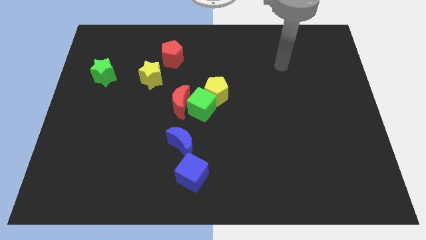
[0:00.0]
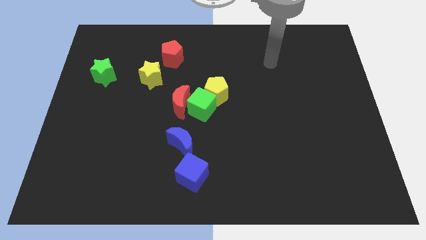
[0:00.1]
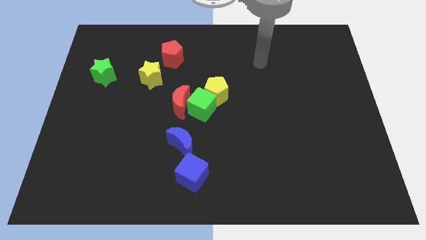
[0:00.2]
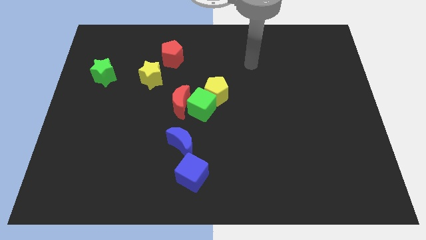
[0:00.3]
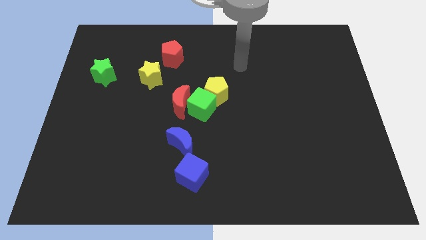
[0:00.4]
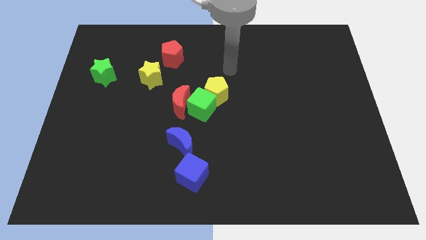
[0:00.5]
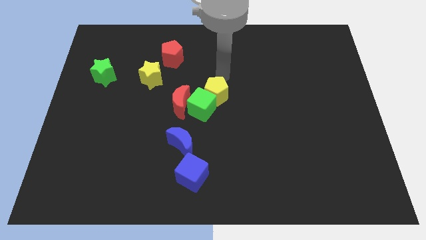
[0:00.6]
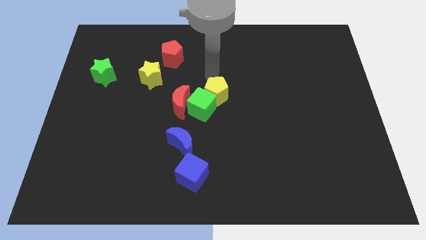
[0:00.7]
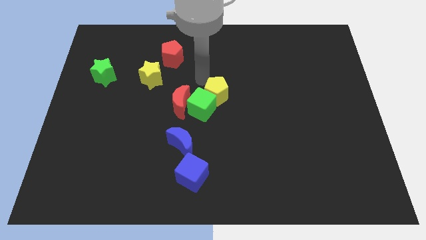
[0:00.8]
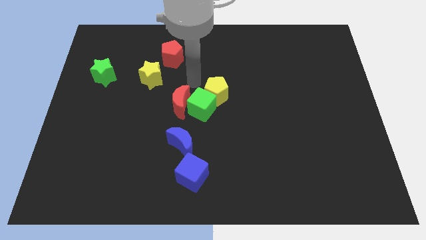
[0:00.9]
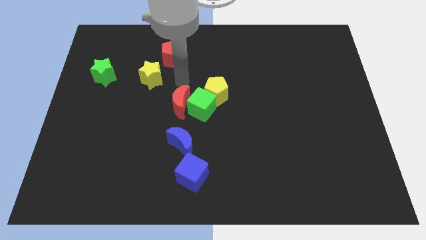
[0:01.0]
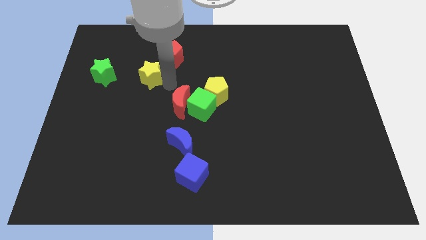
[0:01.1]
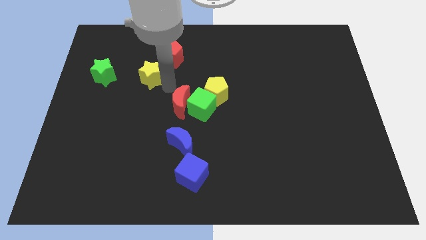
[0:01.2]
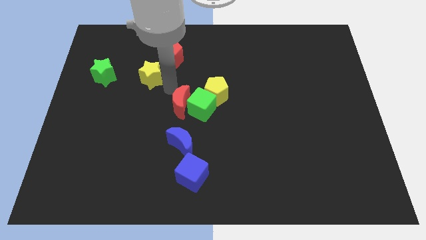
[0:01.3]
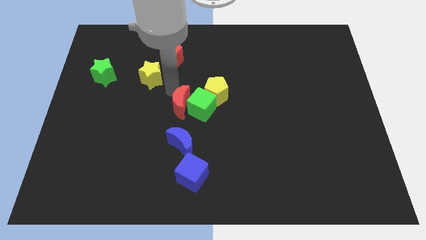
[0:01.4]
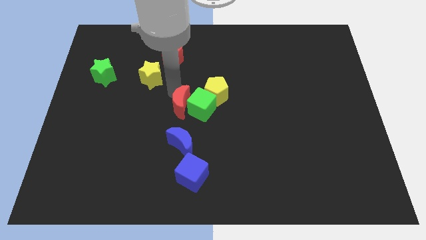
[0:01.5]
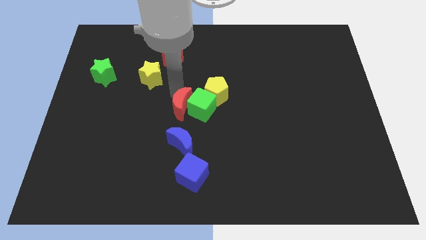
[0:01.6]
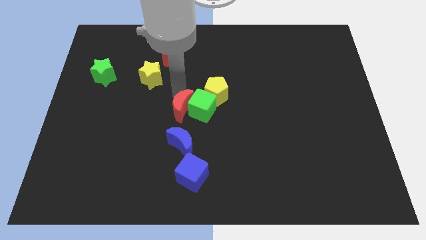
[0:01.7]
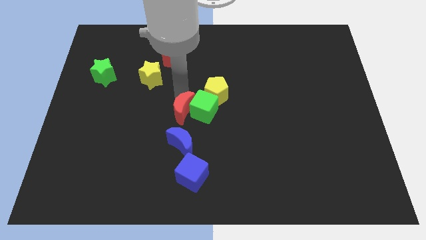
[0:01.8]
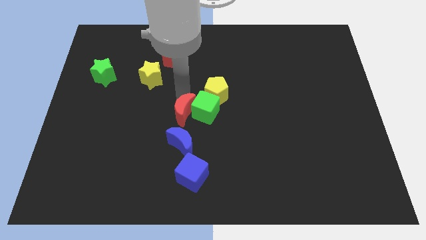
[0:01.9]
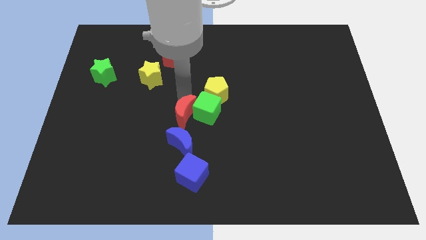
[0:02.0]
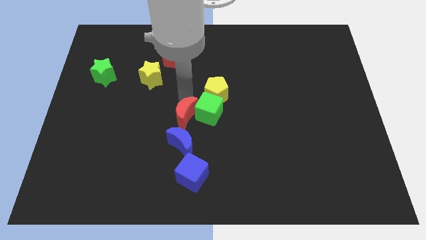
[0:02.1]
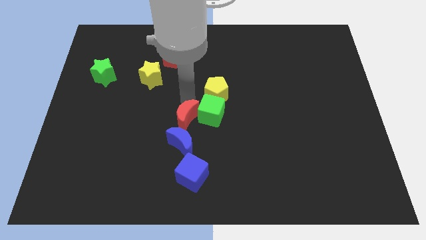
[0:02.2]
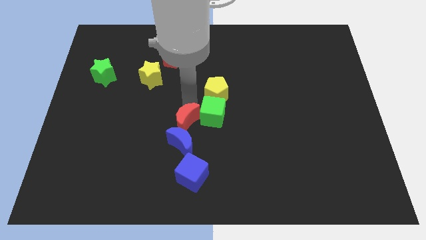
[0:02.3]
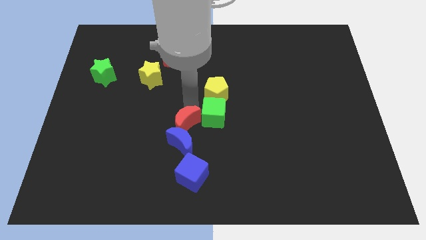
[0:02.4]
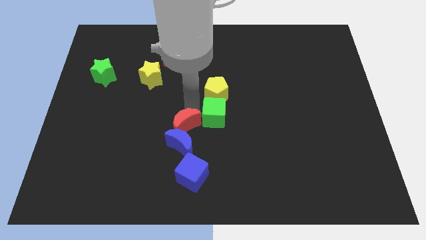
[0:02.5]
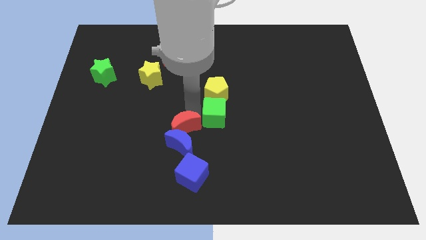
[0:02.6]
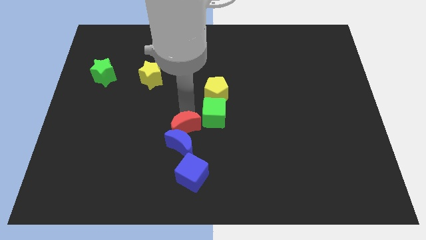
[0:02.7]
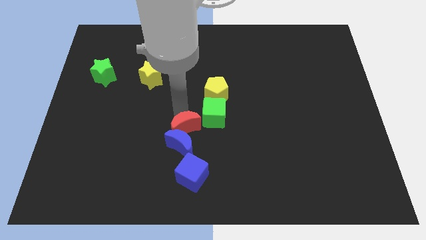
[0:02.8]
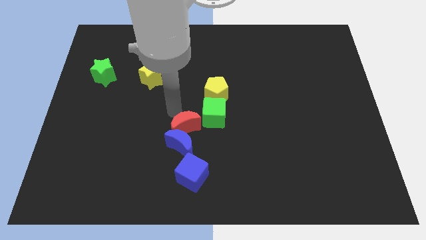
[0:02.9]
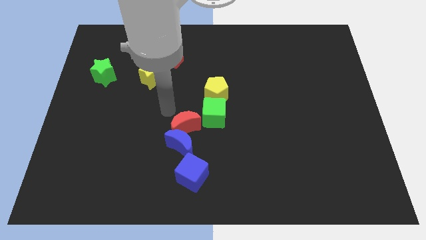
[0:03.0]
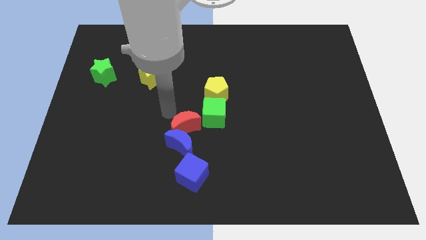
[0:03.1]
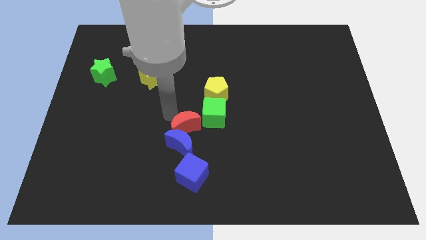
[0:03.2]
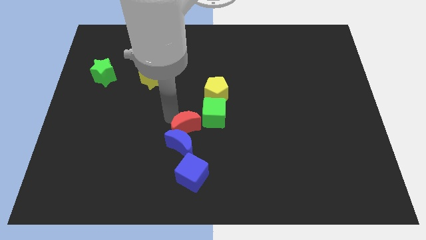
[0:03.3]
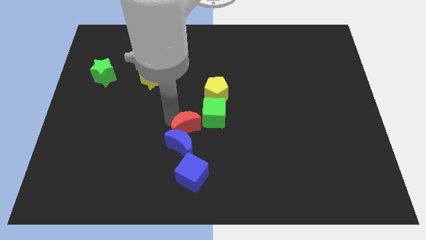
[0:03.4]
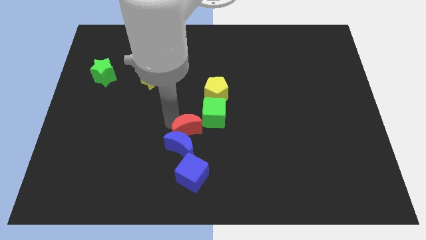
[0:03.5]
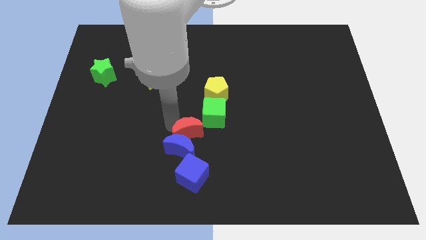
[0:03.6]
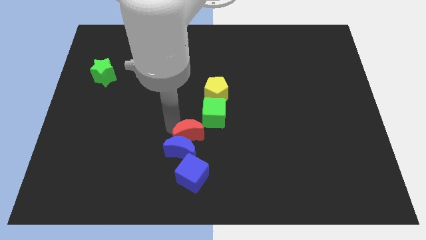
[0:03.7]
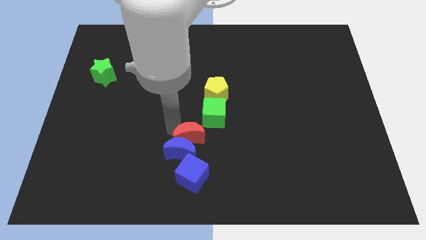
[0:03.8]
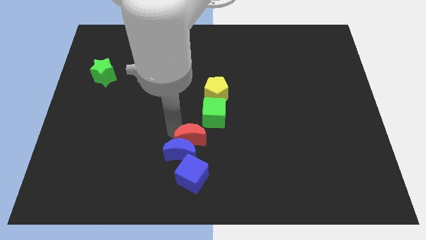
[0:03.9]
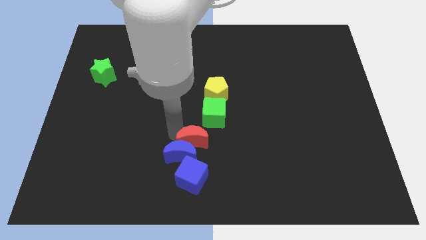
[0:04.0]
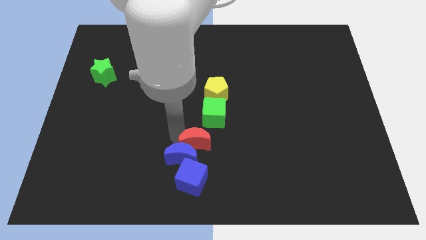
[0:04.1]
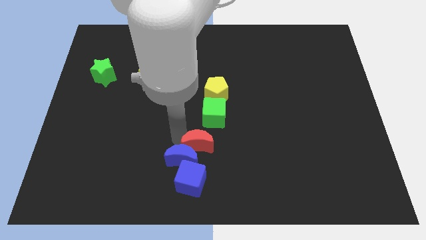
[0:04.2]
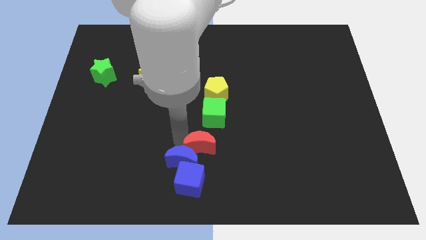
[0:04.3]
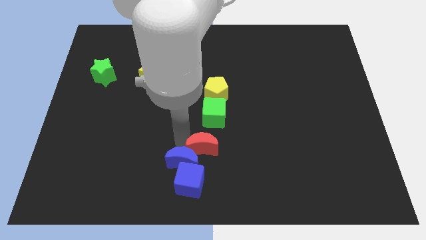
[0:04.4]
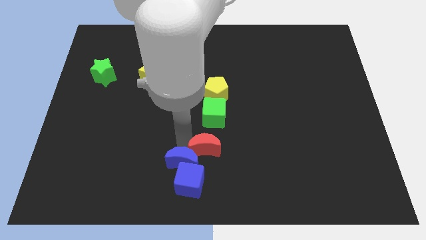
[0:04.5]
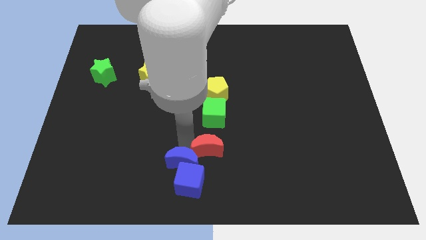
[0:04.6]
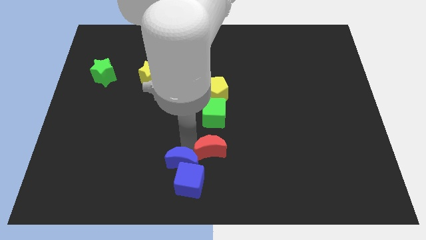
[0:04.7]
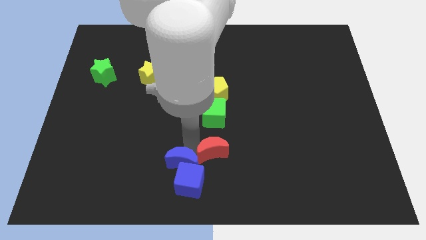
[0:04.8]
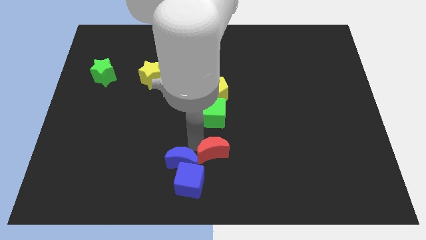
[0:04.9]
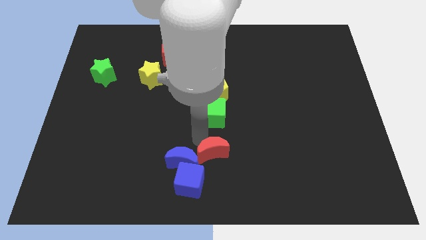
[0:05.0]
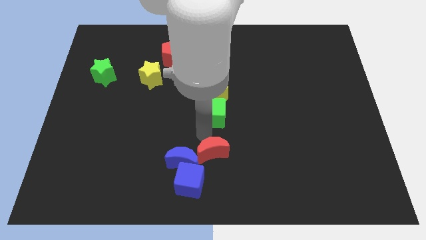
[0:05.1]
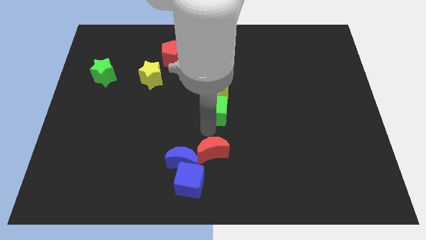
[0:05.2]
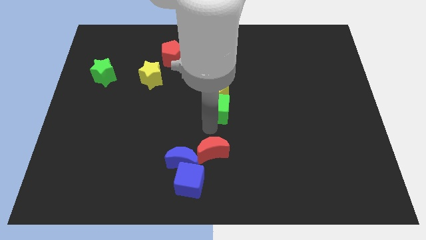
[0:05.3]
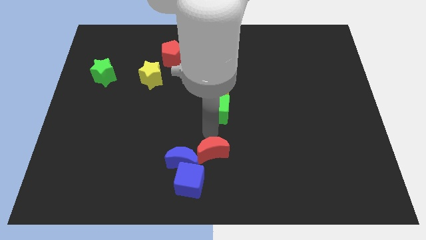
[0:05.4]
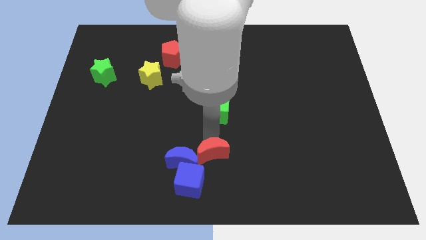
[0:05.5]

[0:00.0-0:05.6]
push the red moon to the bottom
